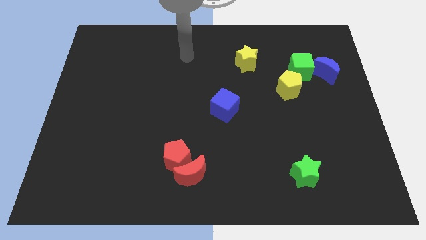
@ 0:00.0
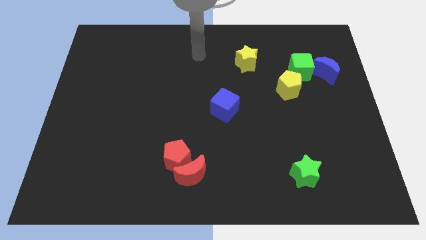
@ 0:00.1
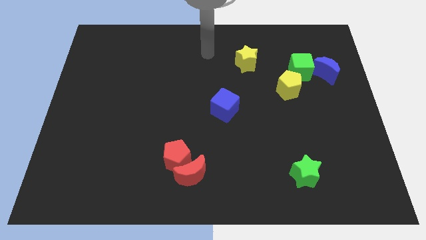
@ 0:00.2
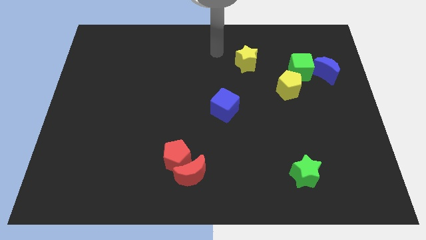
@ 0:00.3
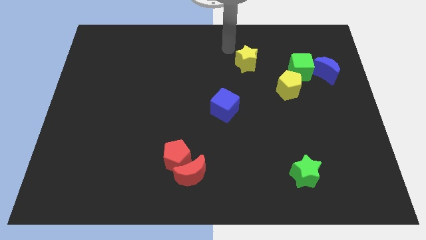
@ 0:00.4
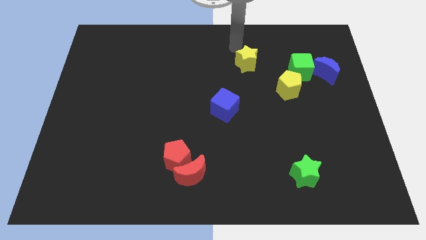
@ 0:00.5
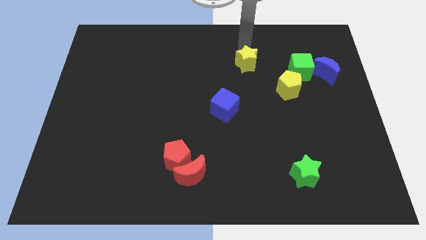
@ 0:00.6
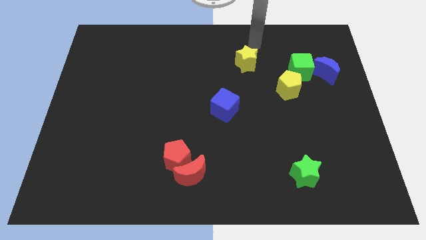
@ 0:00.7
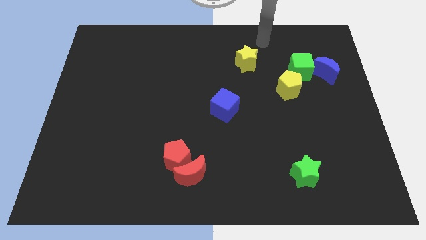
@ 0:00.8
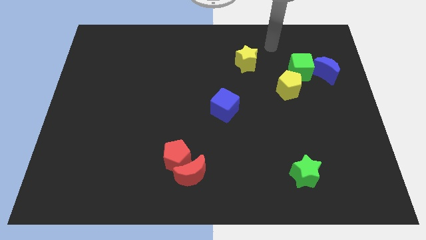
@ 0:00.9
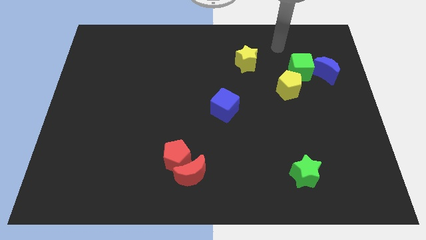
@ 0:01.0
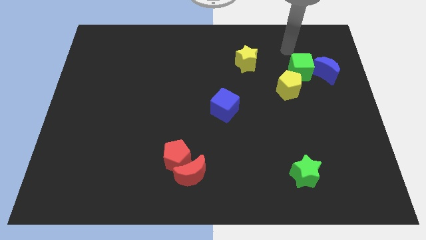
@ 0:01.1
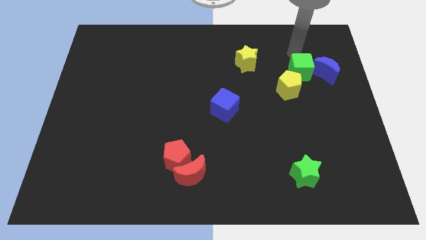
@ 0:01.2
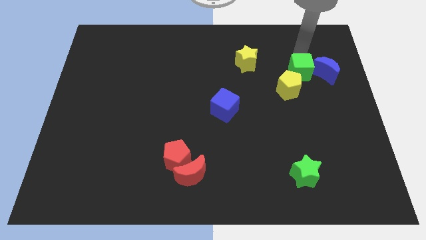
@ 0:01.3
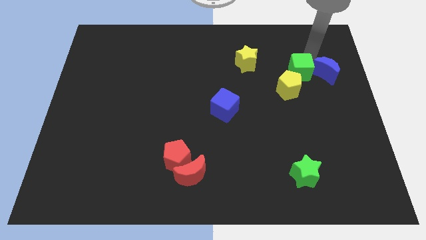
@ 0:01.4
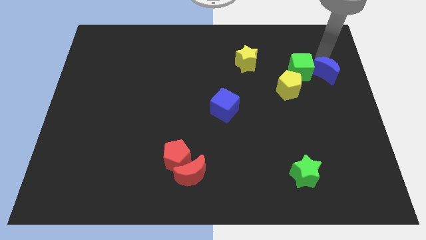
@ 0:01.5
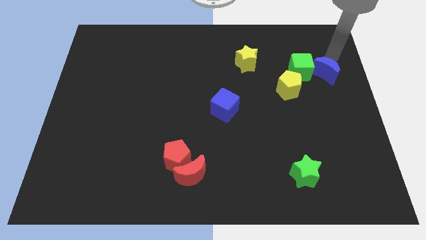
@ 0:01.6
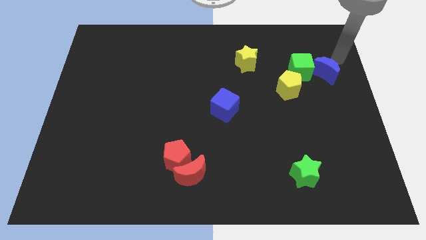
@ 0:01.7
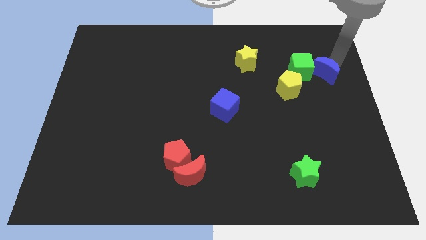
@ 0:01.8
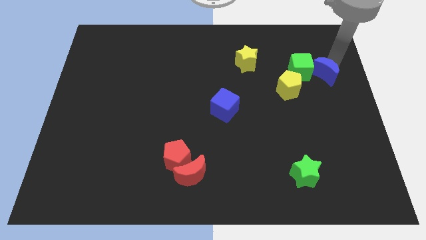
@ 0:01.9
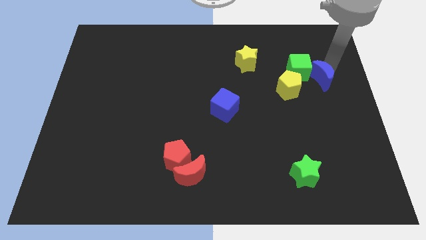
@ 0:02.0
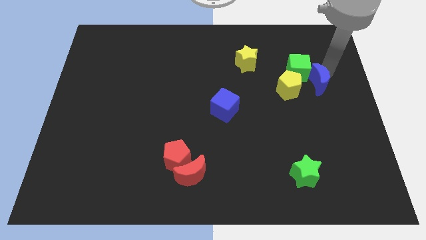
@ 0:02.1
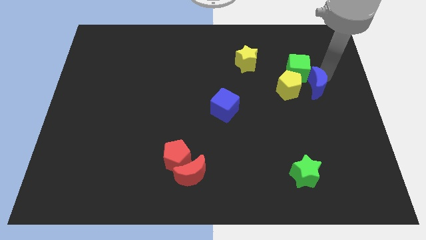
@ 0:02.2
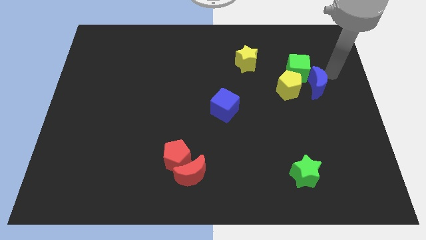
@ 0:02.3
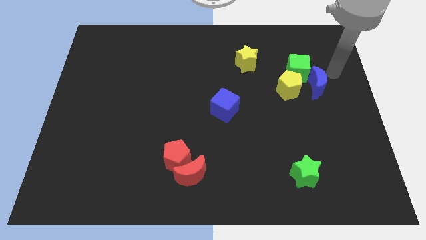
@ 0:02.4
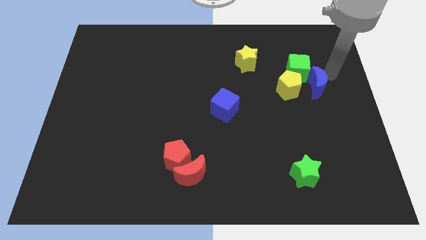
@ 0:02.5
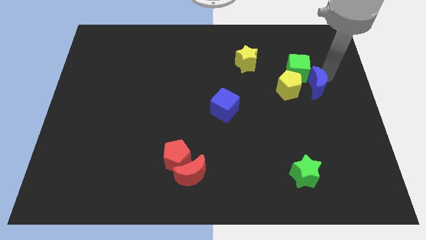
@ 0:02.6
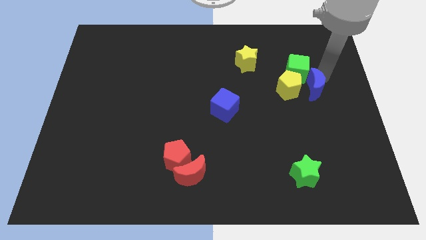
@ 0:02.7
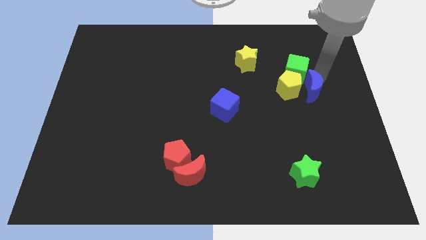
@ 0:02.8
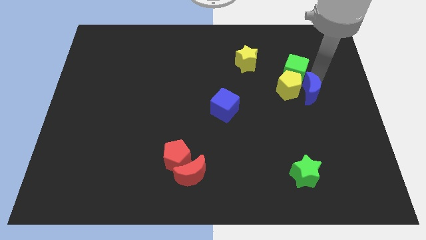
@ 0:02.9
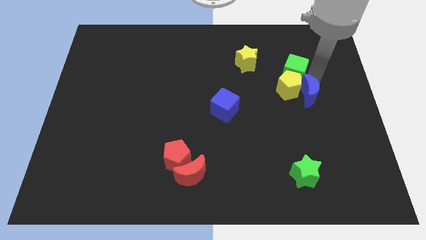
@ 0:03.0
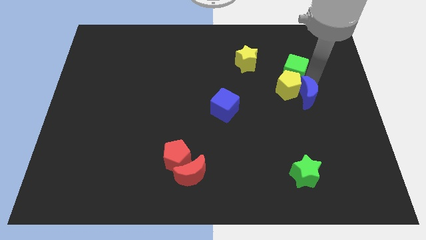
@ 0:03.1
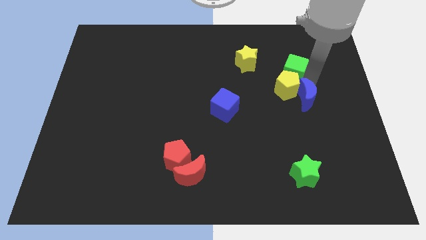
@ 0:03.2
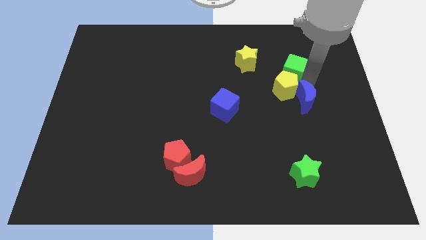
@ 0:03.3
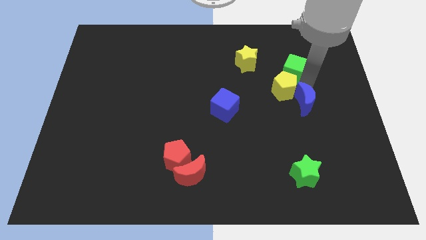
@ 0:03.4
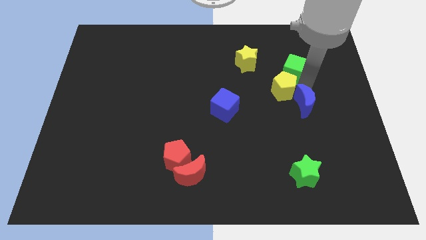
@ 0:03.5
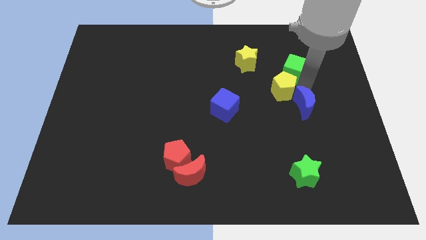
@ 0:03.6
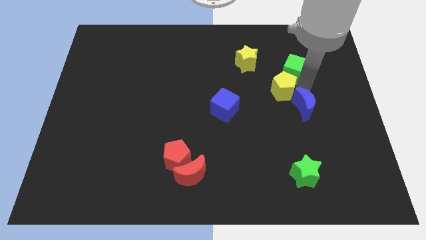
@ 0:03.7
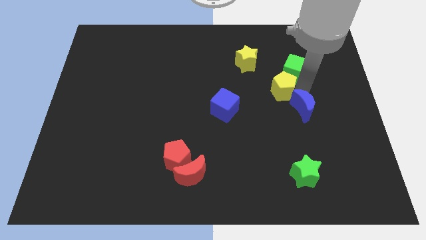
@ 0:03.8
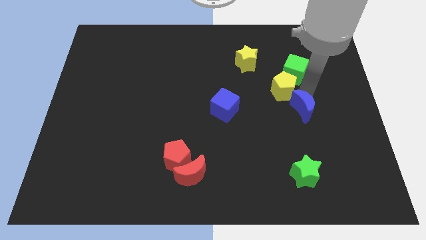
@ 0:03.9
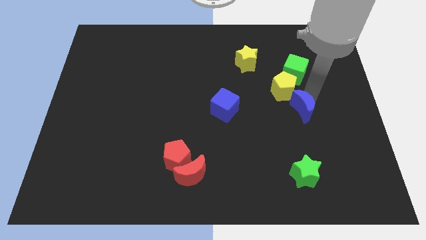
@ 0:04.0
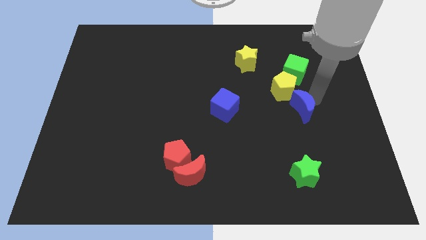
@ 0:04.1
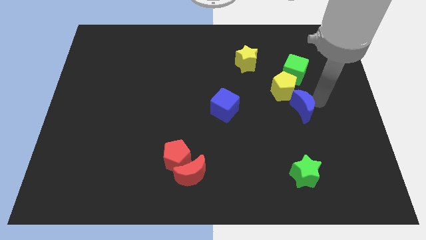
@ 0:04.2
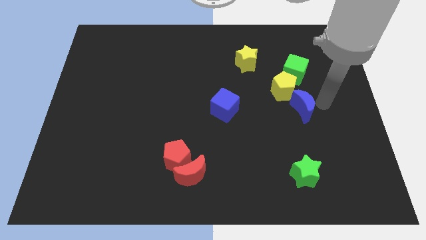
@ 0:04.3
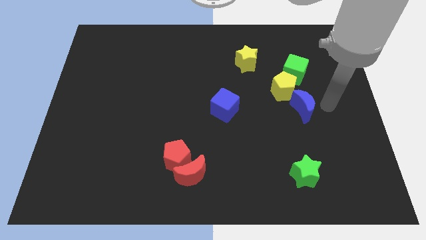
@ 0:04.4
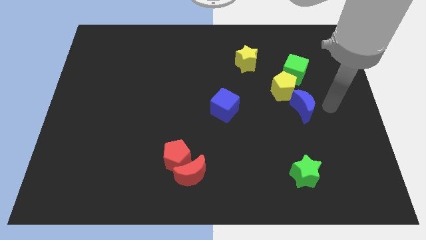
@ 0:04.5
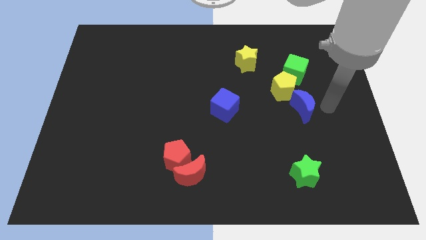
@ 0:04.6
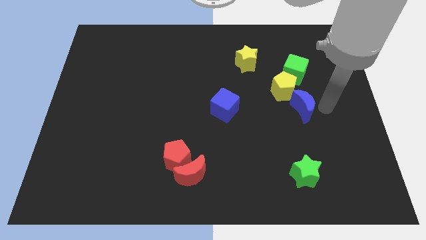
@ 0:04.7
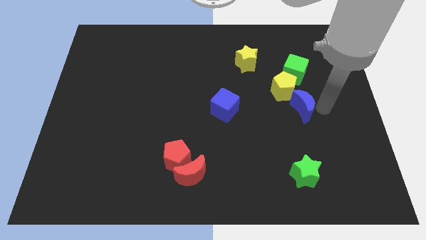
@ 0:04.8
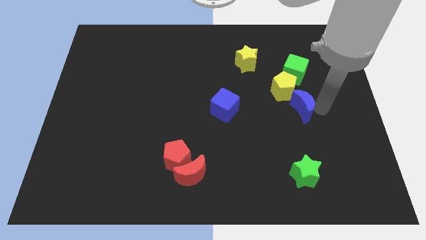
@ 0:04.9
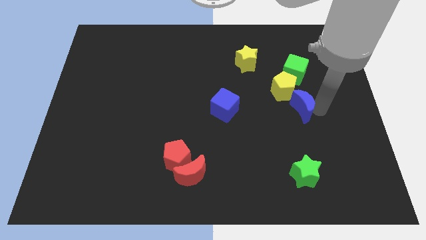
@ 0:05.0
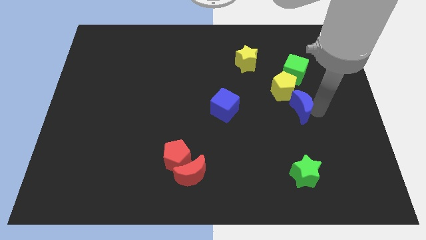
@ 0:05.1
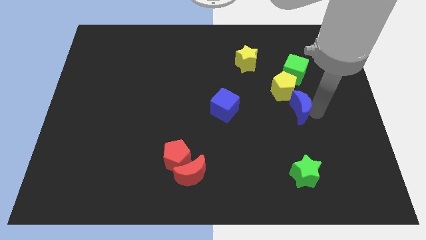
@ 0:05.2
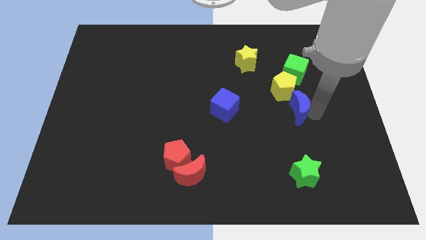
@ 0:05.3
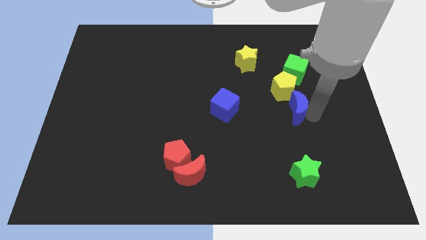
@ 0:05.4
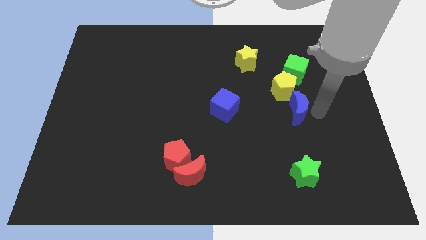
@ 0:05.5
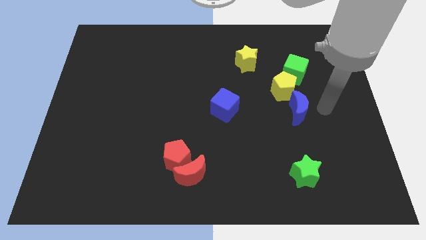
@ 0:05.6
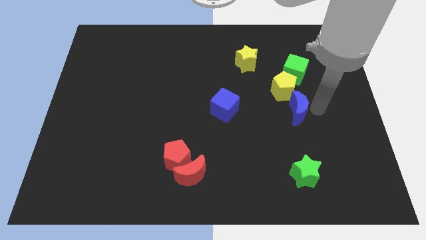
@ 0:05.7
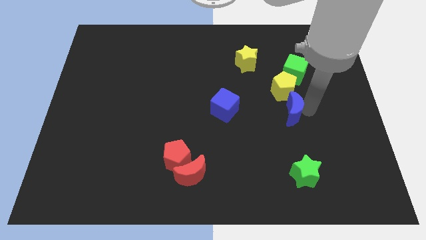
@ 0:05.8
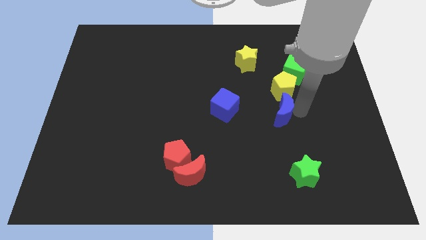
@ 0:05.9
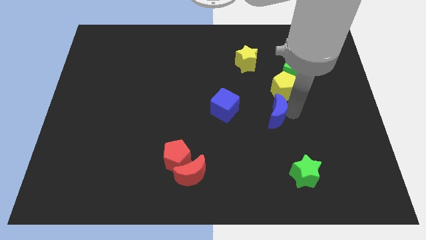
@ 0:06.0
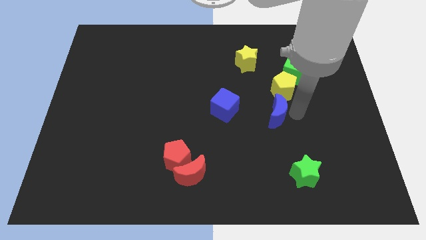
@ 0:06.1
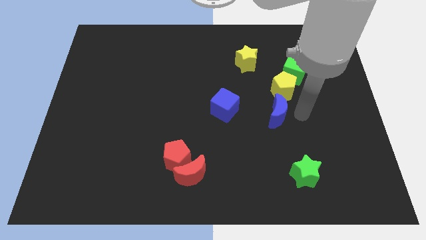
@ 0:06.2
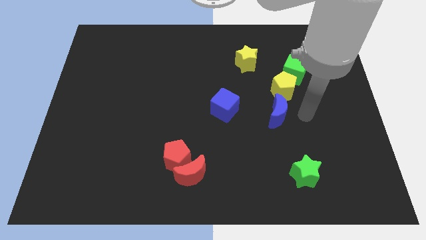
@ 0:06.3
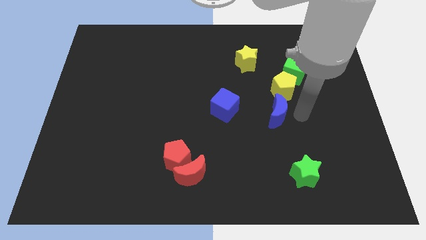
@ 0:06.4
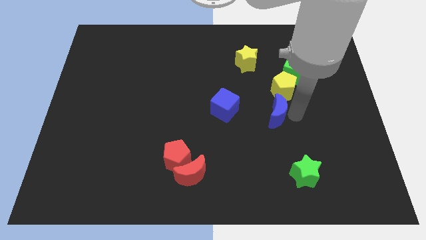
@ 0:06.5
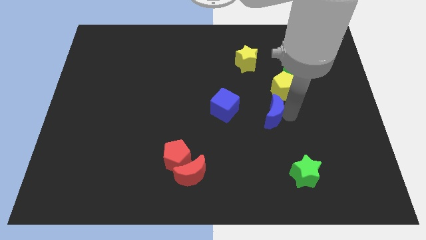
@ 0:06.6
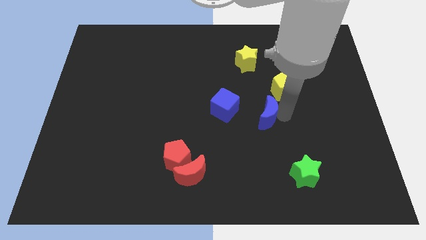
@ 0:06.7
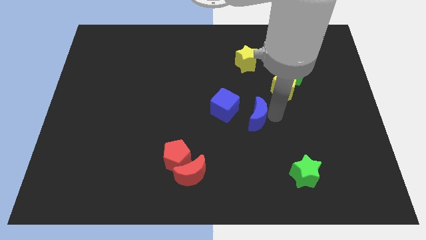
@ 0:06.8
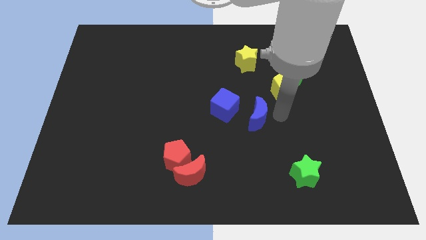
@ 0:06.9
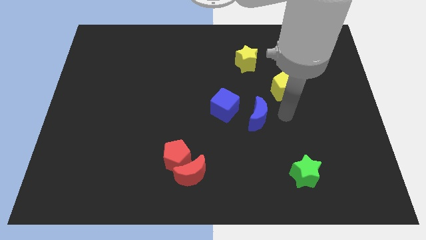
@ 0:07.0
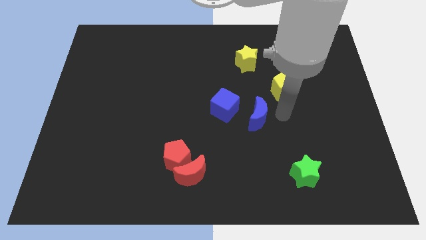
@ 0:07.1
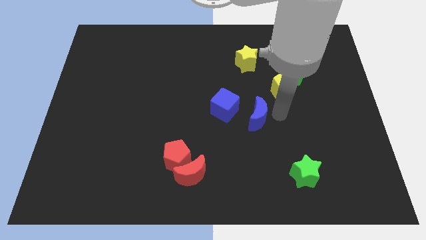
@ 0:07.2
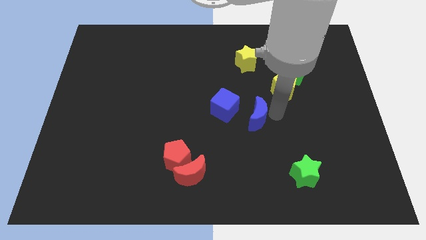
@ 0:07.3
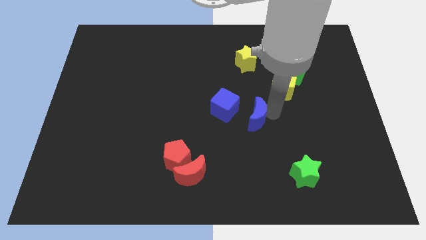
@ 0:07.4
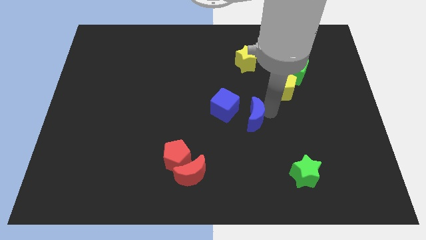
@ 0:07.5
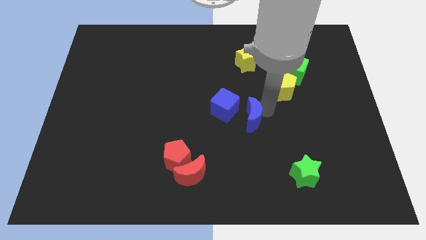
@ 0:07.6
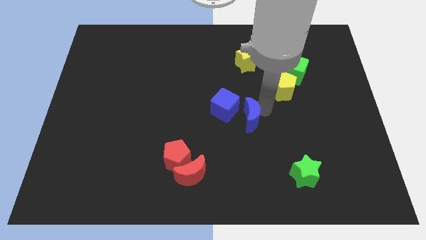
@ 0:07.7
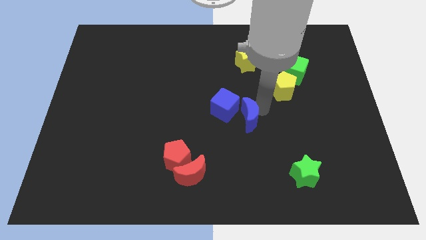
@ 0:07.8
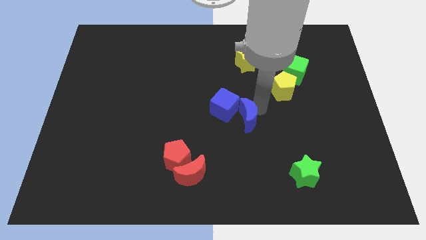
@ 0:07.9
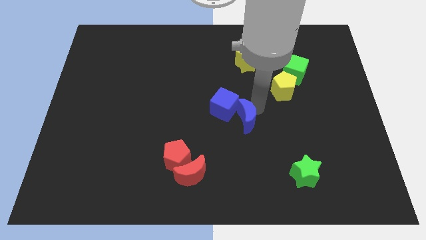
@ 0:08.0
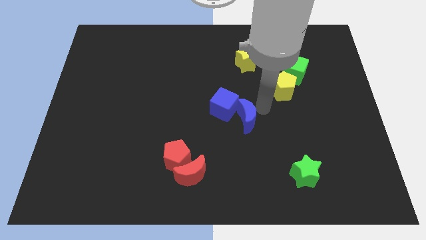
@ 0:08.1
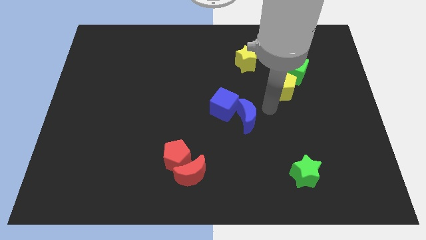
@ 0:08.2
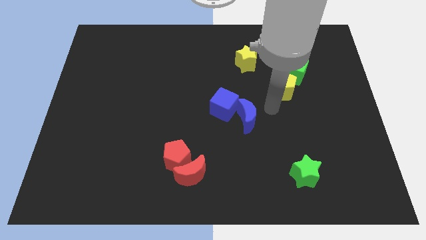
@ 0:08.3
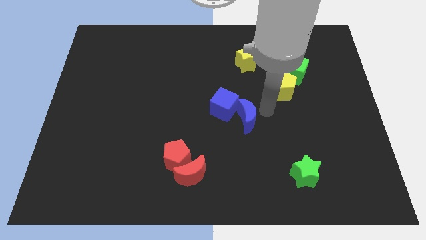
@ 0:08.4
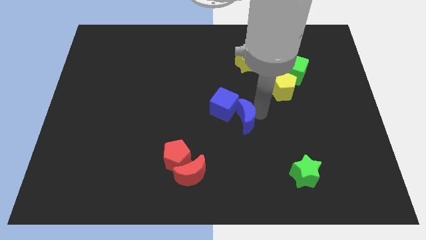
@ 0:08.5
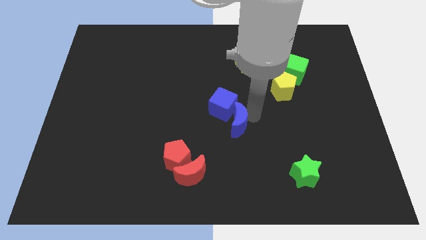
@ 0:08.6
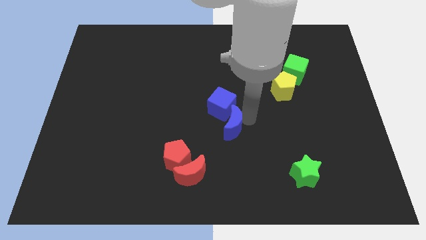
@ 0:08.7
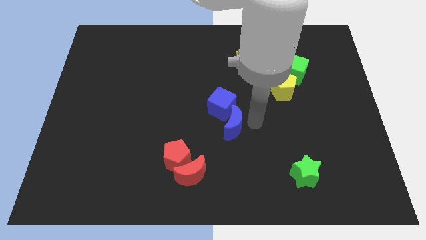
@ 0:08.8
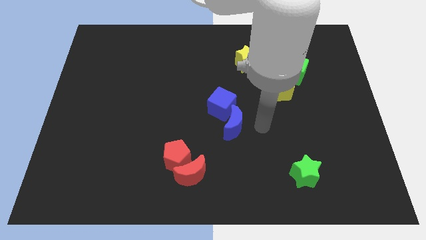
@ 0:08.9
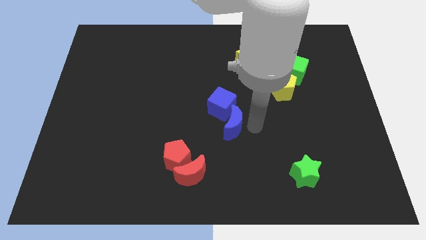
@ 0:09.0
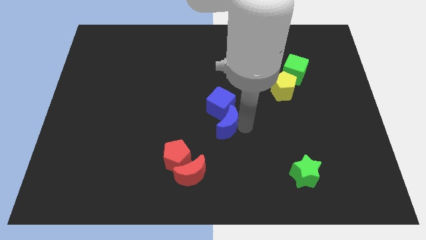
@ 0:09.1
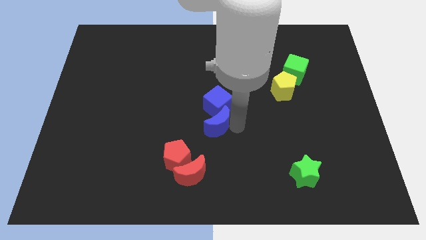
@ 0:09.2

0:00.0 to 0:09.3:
put the blue moon to the bottom left of the blue cube
